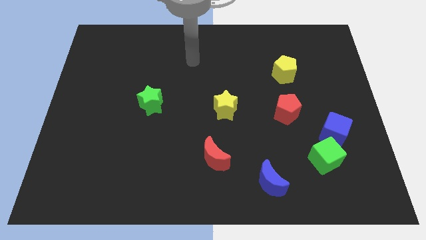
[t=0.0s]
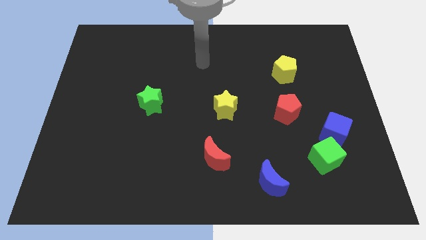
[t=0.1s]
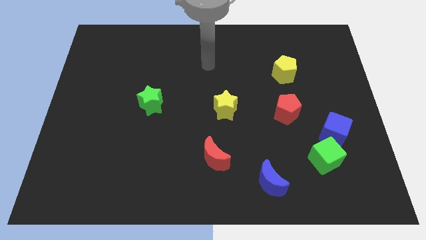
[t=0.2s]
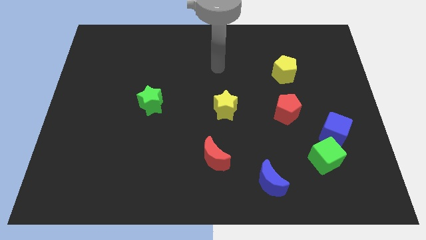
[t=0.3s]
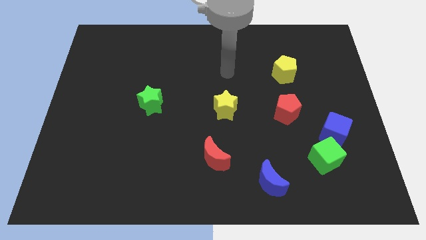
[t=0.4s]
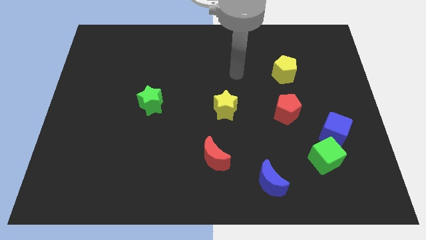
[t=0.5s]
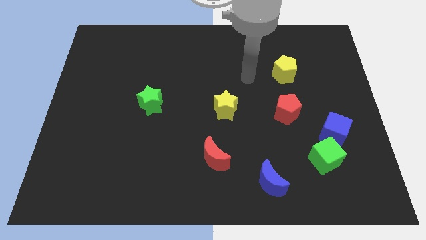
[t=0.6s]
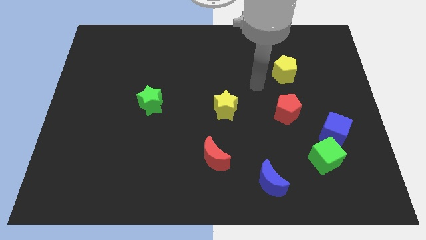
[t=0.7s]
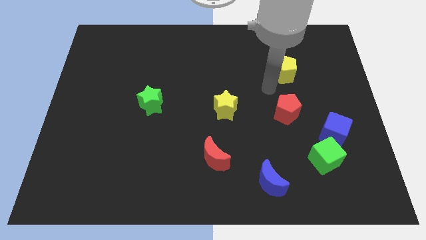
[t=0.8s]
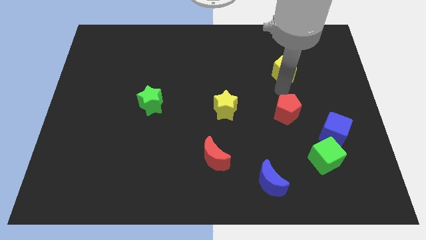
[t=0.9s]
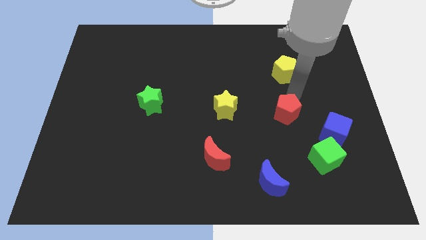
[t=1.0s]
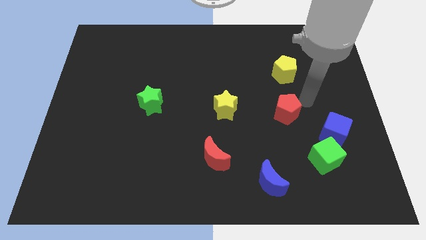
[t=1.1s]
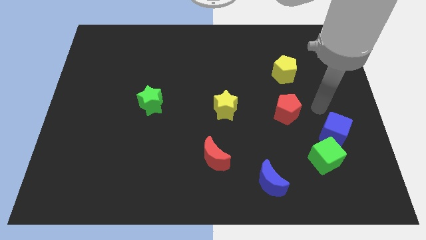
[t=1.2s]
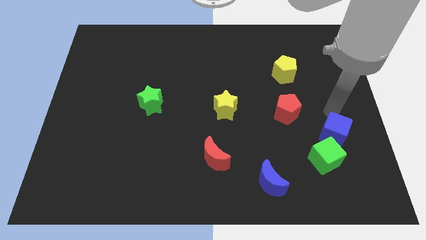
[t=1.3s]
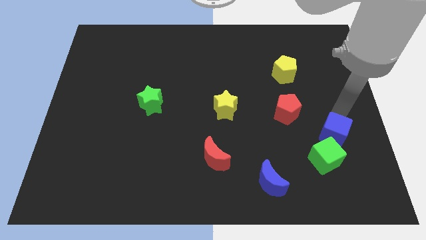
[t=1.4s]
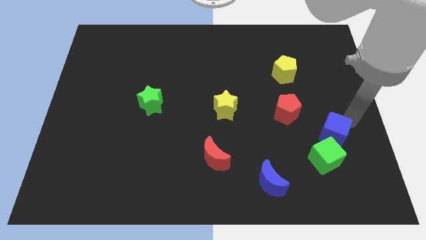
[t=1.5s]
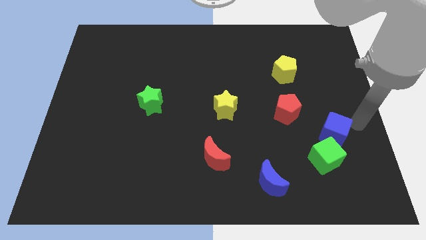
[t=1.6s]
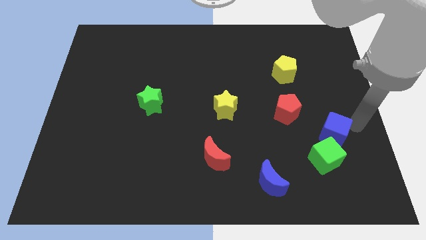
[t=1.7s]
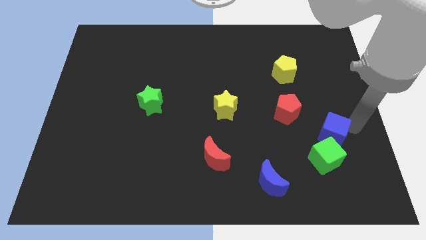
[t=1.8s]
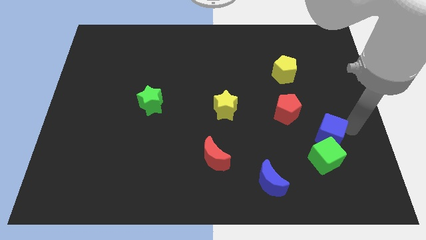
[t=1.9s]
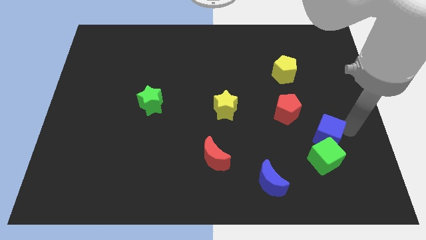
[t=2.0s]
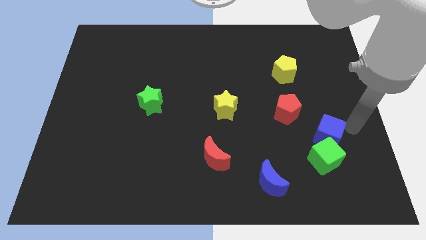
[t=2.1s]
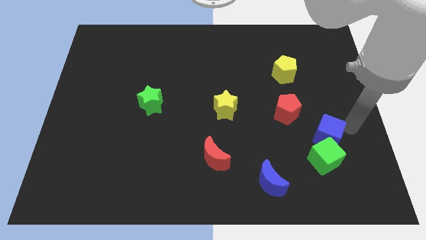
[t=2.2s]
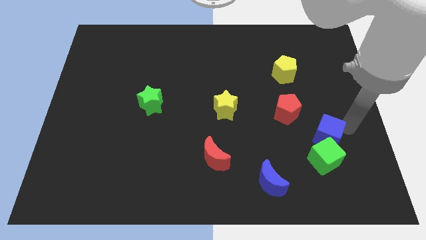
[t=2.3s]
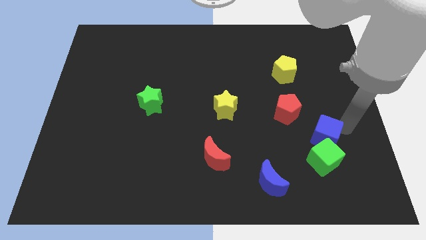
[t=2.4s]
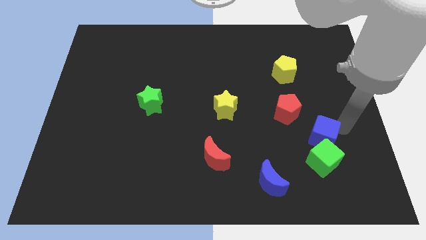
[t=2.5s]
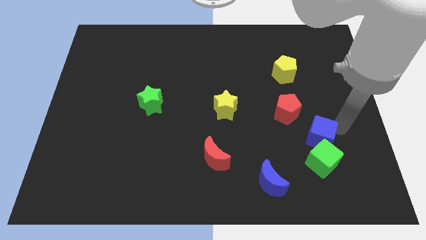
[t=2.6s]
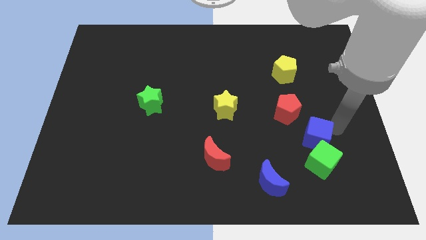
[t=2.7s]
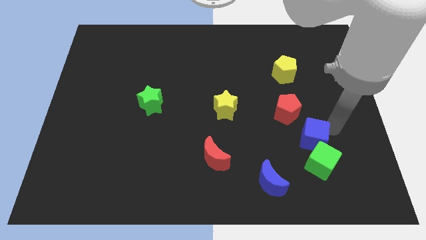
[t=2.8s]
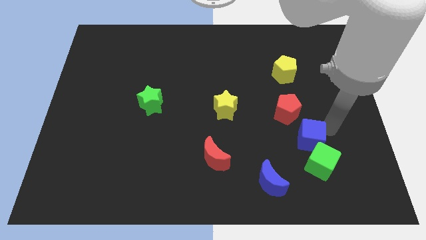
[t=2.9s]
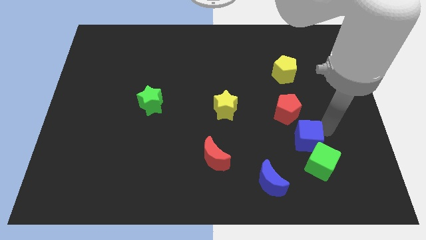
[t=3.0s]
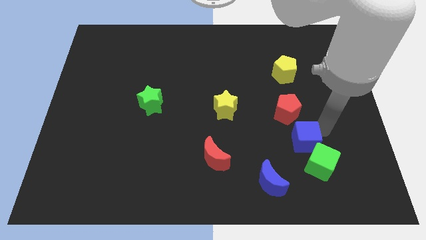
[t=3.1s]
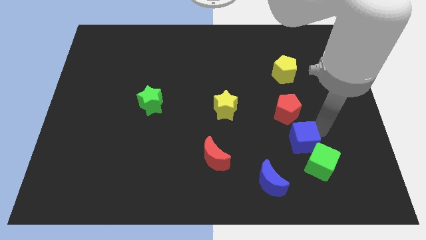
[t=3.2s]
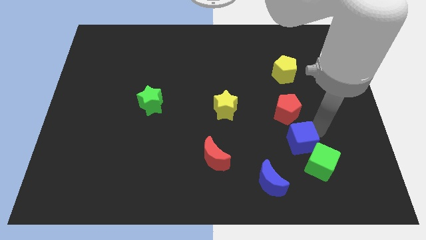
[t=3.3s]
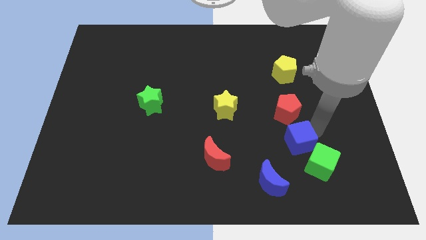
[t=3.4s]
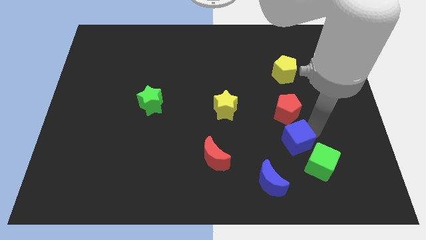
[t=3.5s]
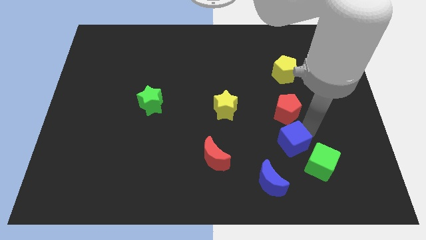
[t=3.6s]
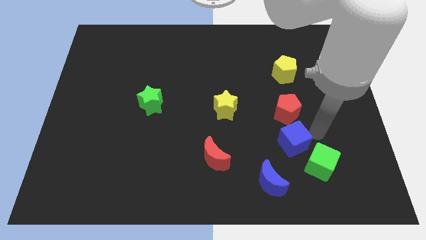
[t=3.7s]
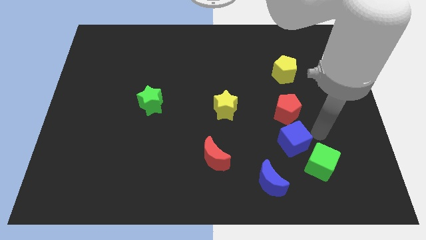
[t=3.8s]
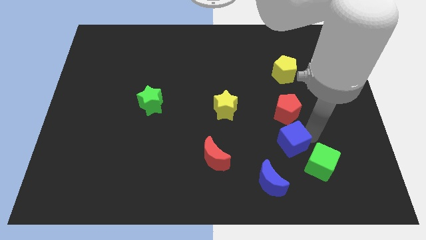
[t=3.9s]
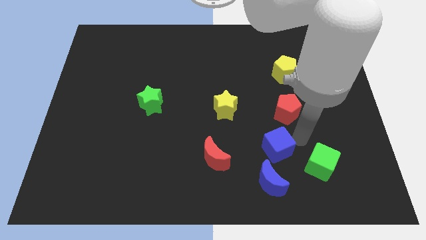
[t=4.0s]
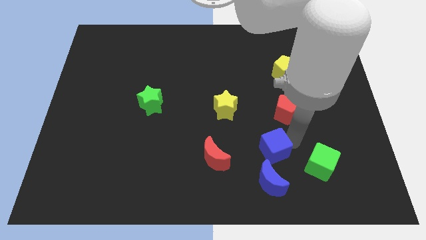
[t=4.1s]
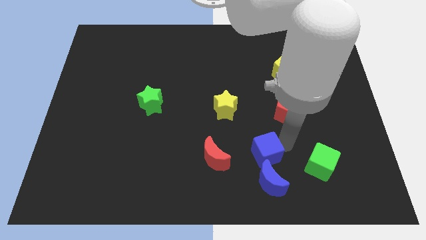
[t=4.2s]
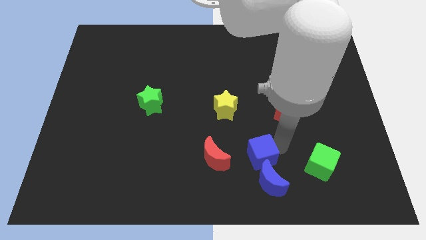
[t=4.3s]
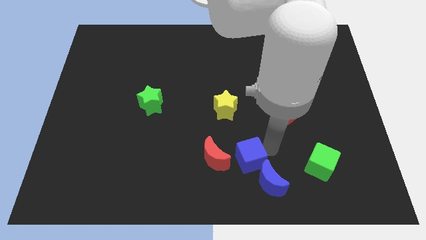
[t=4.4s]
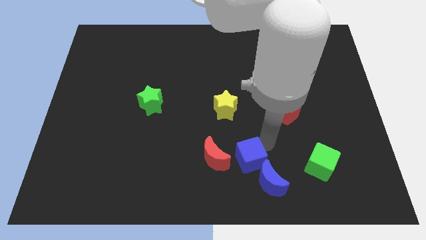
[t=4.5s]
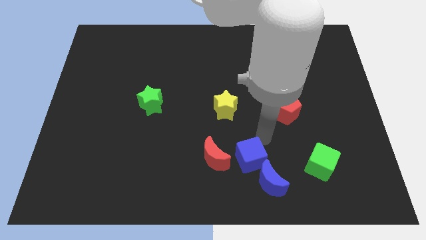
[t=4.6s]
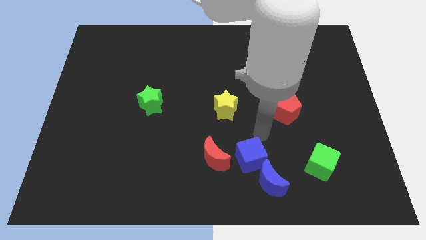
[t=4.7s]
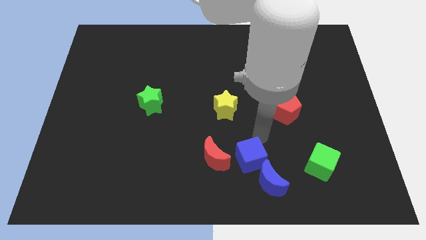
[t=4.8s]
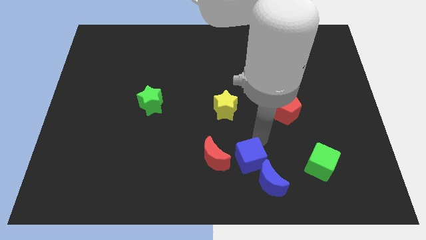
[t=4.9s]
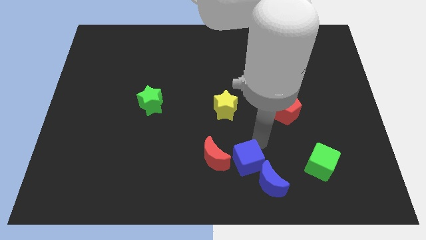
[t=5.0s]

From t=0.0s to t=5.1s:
push the blue cube diagonally down and to the right of the red moon

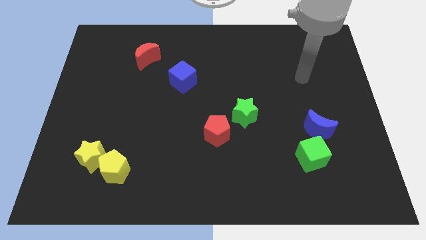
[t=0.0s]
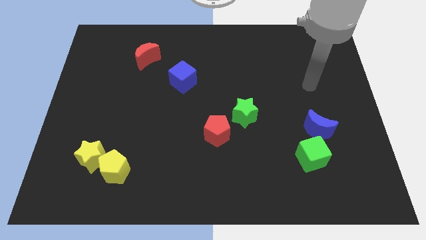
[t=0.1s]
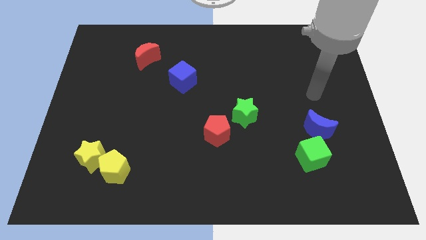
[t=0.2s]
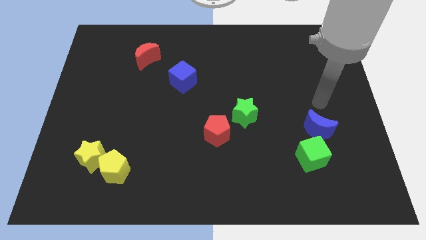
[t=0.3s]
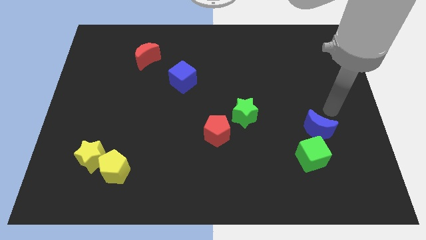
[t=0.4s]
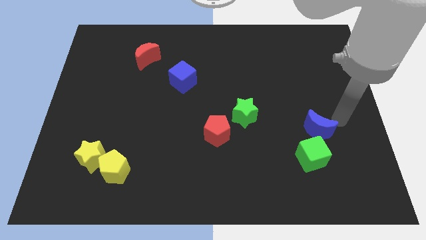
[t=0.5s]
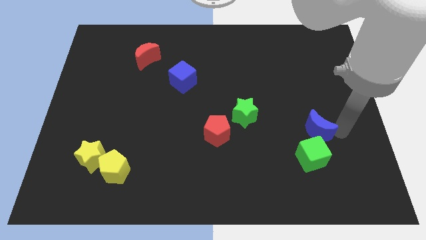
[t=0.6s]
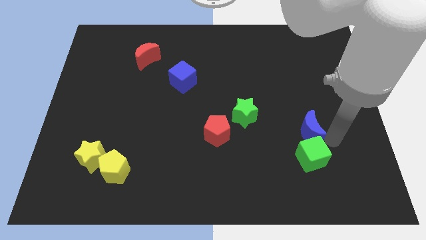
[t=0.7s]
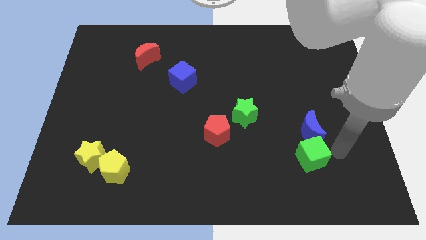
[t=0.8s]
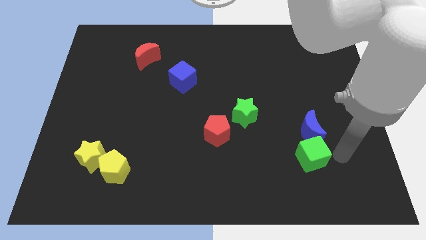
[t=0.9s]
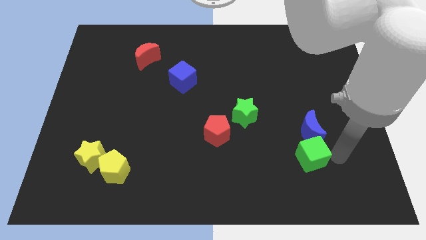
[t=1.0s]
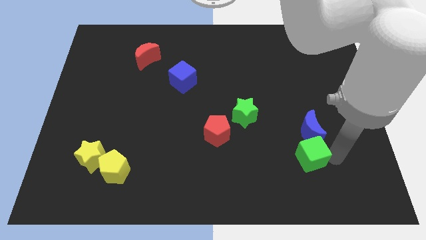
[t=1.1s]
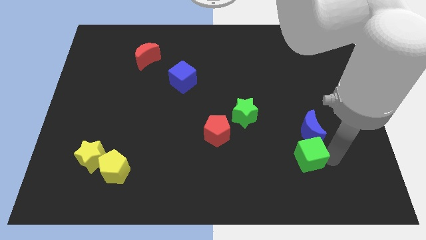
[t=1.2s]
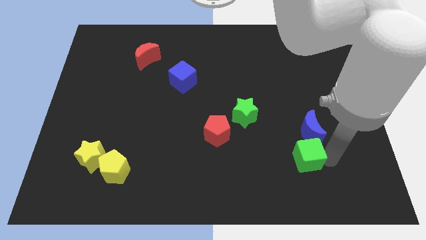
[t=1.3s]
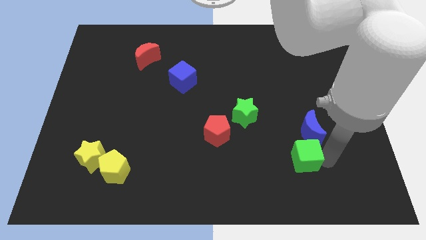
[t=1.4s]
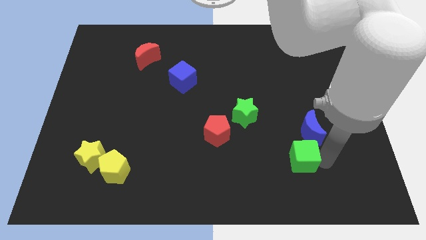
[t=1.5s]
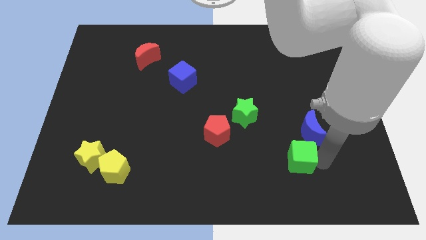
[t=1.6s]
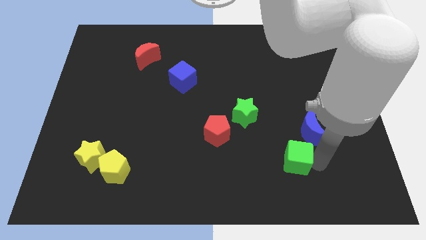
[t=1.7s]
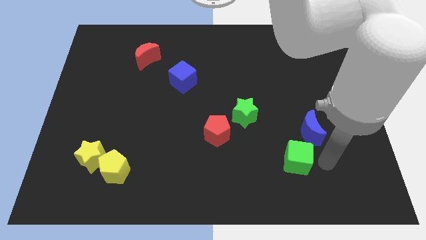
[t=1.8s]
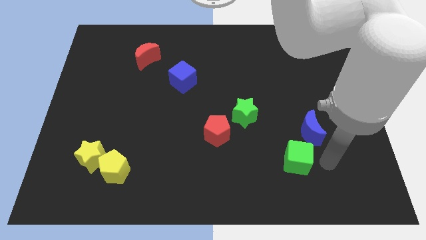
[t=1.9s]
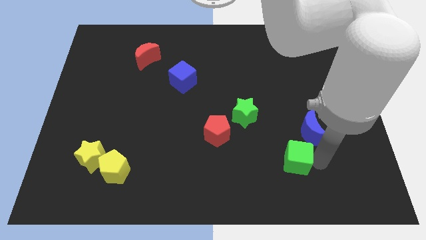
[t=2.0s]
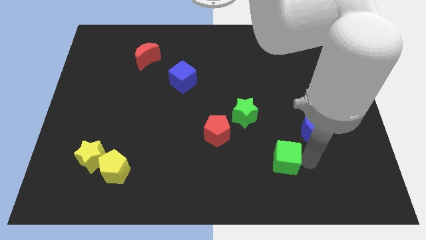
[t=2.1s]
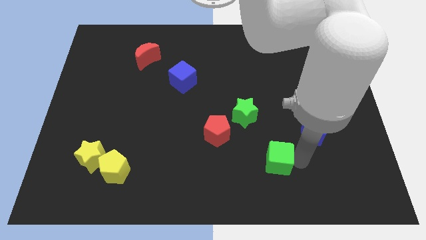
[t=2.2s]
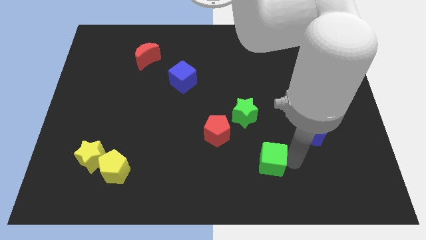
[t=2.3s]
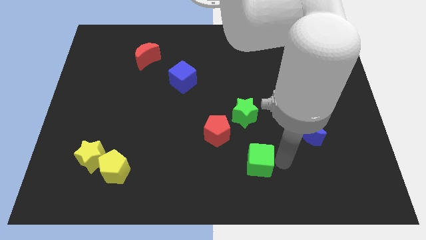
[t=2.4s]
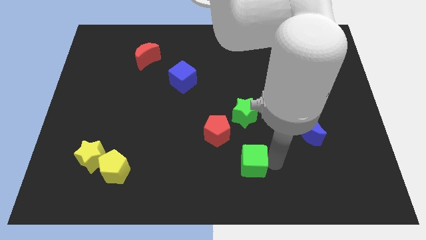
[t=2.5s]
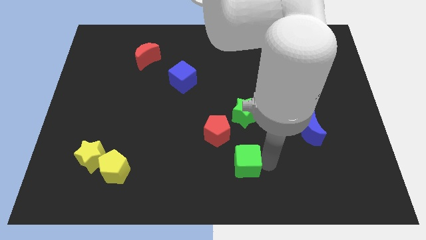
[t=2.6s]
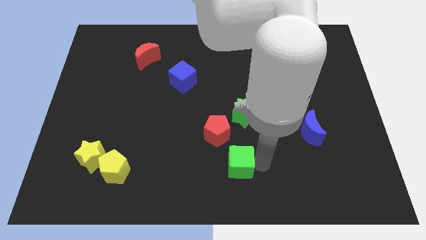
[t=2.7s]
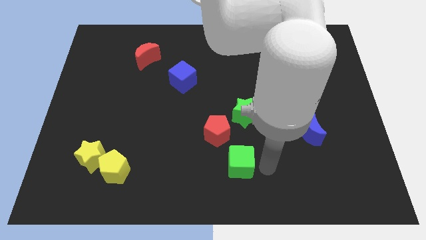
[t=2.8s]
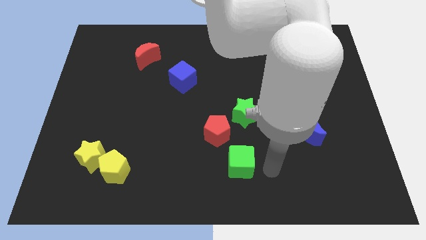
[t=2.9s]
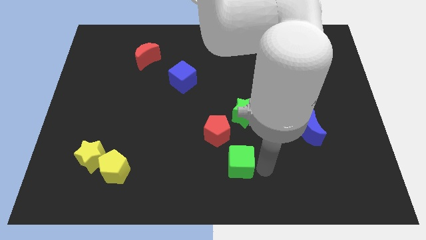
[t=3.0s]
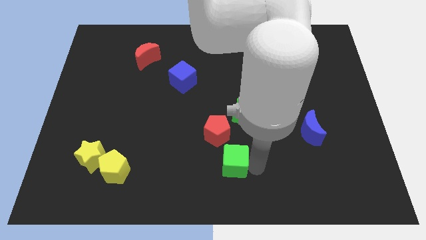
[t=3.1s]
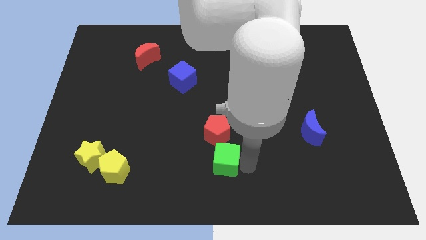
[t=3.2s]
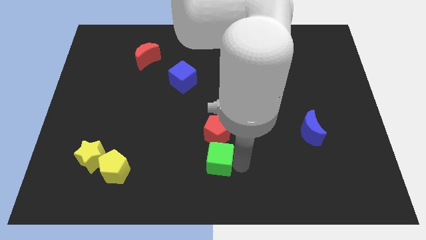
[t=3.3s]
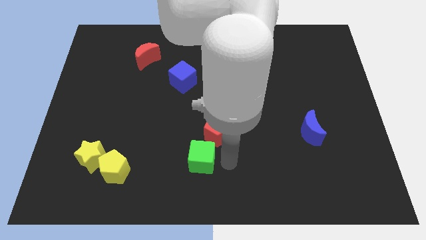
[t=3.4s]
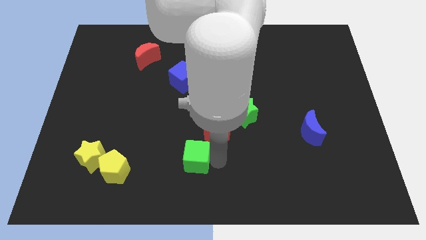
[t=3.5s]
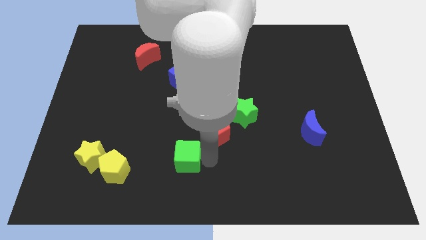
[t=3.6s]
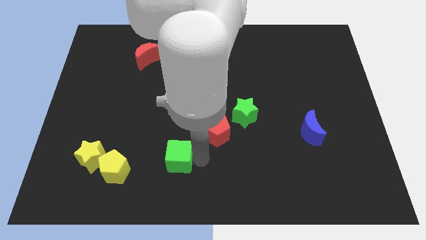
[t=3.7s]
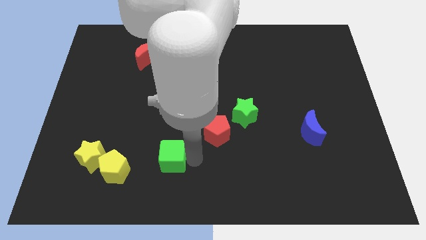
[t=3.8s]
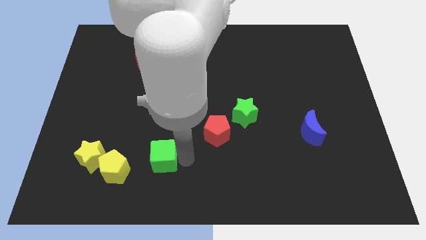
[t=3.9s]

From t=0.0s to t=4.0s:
move the green cube to the right side of the yellow star
